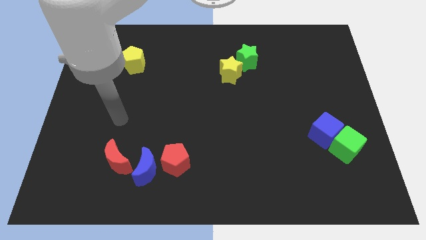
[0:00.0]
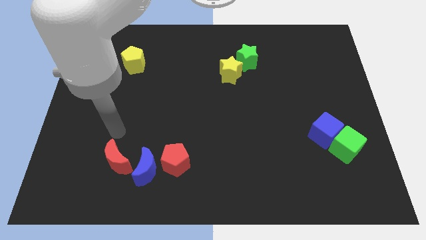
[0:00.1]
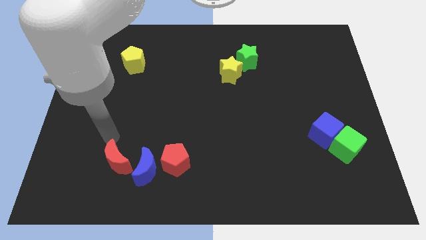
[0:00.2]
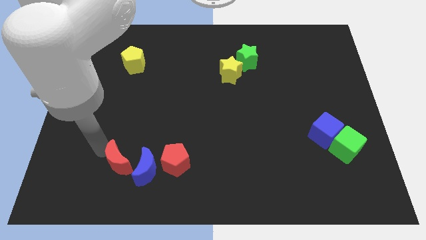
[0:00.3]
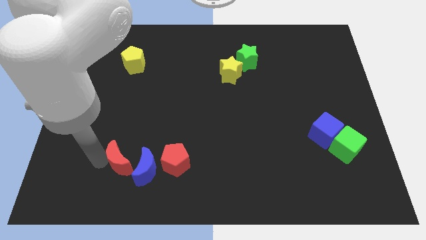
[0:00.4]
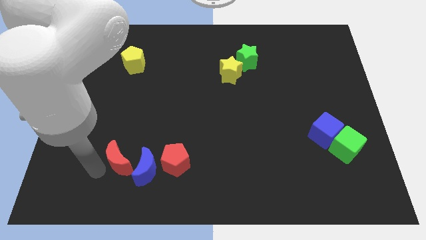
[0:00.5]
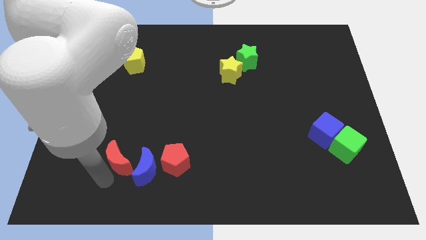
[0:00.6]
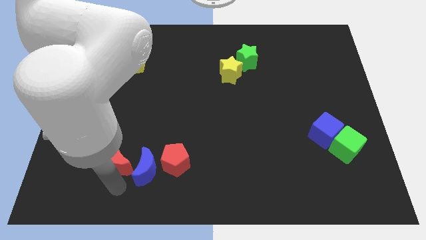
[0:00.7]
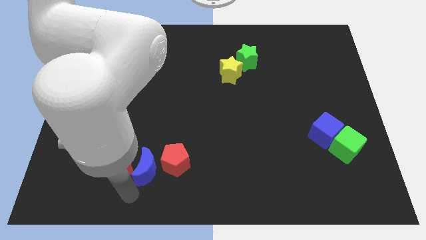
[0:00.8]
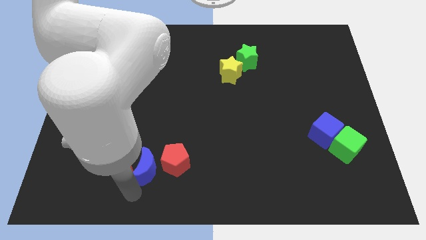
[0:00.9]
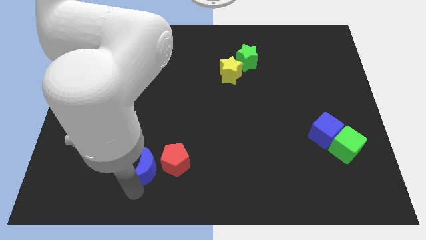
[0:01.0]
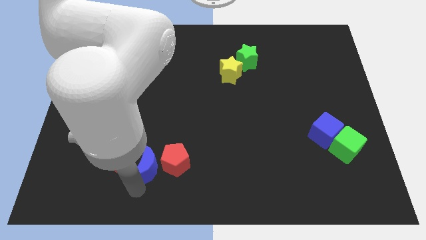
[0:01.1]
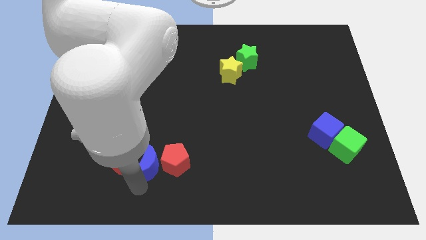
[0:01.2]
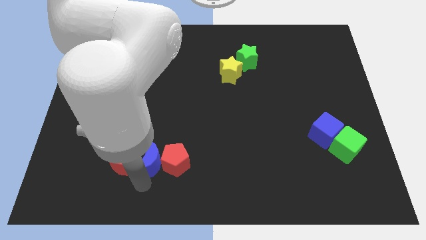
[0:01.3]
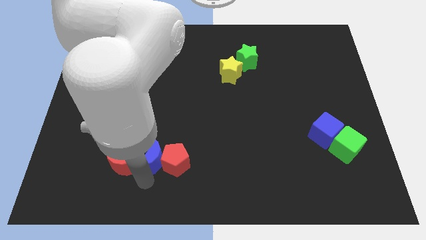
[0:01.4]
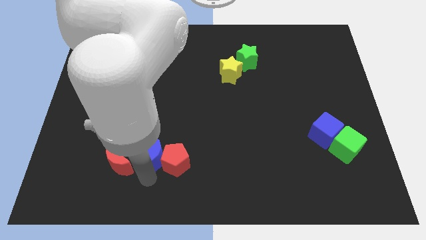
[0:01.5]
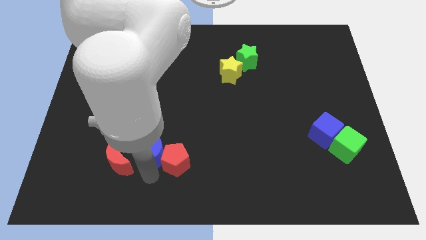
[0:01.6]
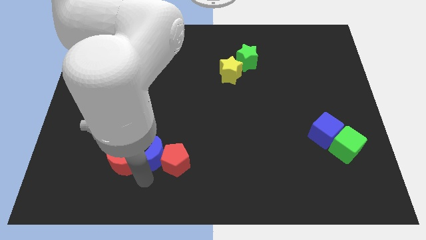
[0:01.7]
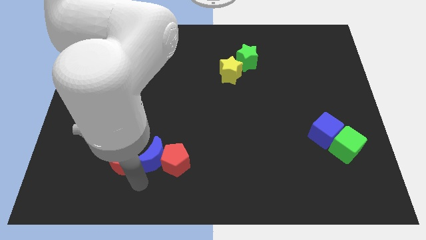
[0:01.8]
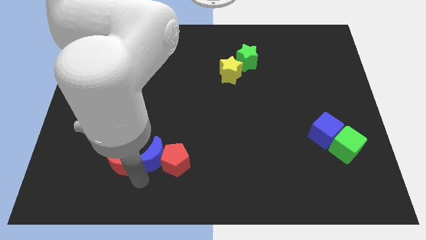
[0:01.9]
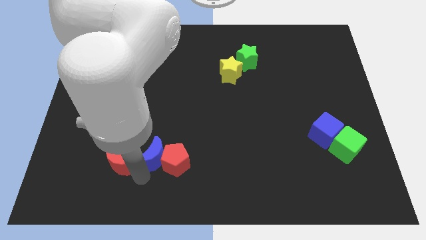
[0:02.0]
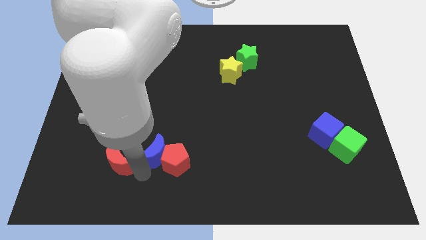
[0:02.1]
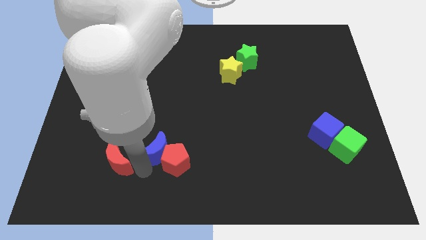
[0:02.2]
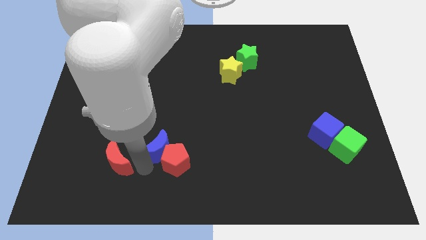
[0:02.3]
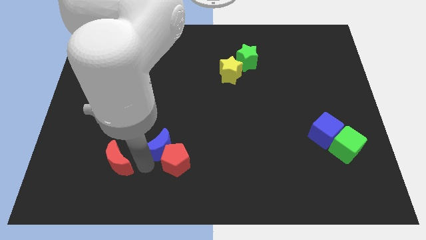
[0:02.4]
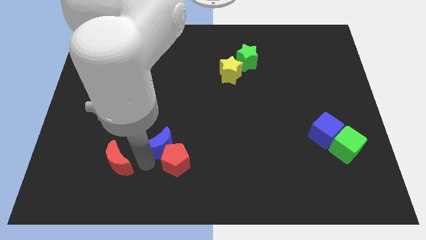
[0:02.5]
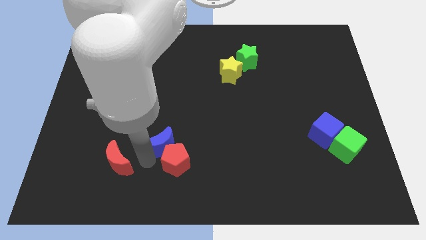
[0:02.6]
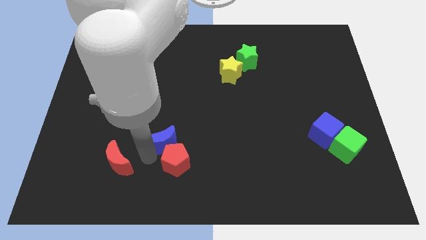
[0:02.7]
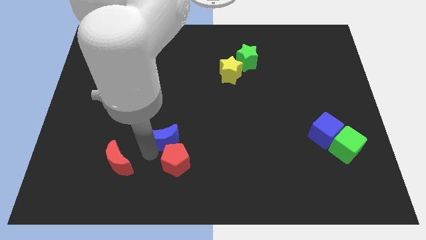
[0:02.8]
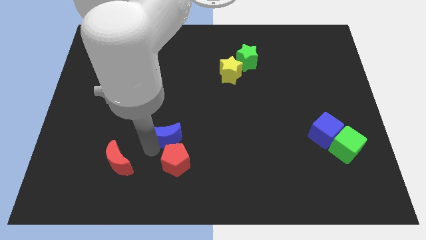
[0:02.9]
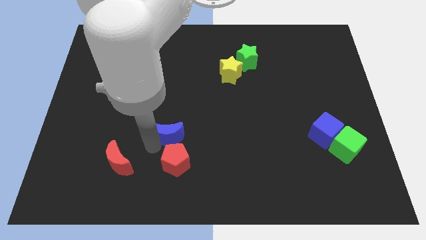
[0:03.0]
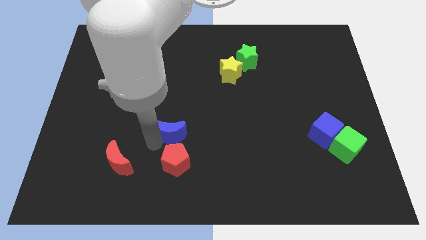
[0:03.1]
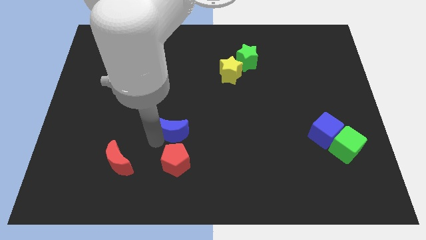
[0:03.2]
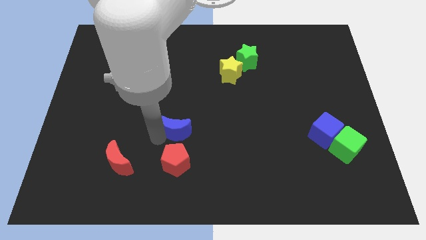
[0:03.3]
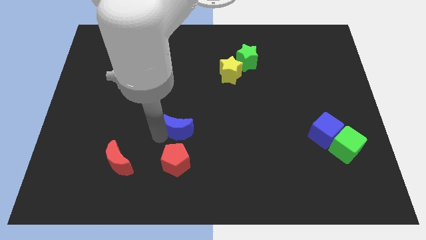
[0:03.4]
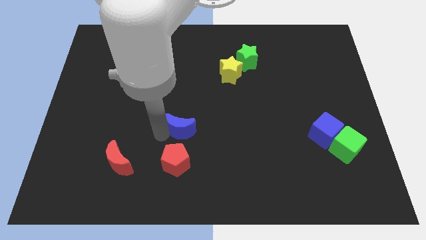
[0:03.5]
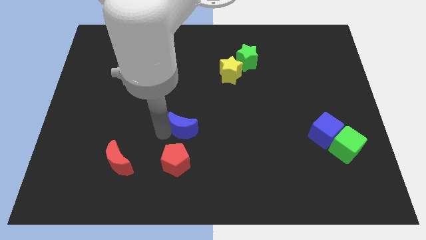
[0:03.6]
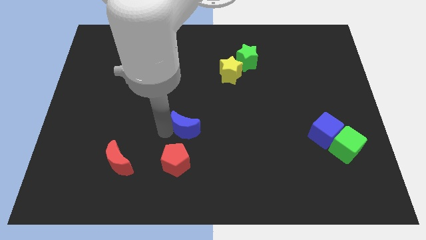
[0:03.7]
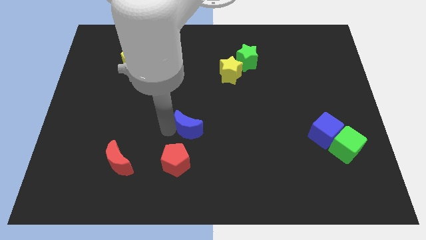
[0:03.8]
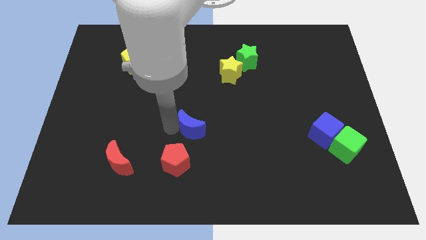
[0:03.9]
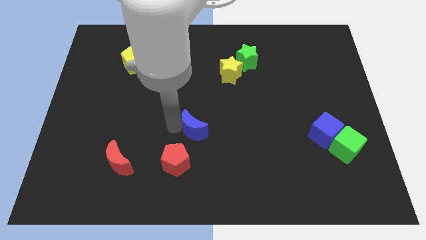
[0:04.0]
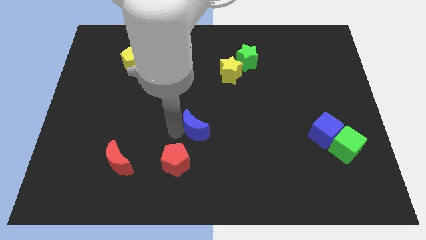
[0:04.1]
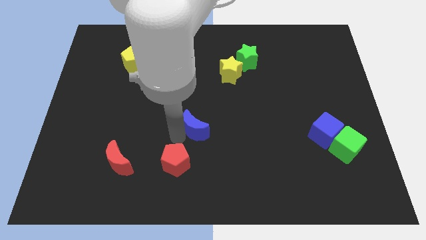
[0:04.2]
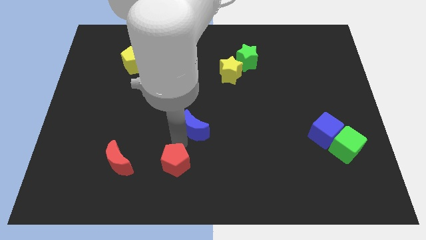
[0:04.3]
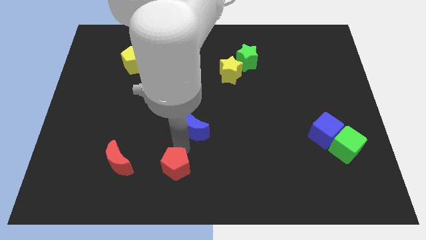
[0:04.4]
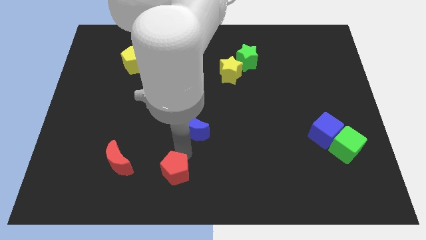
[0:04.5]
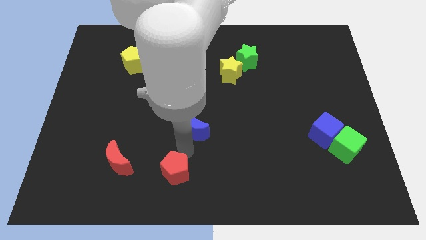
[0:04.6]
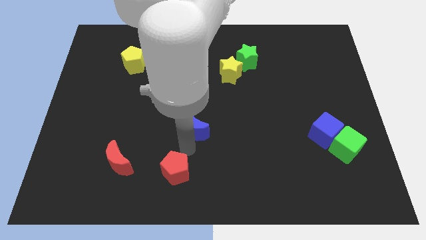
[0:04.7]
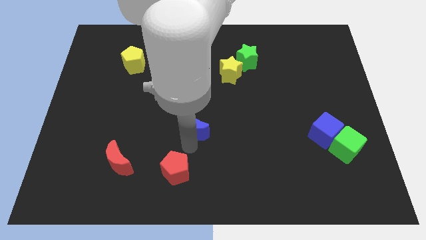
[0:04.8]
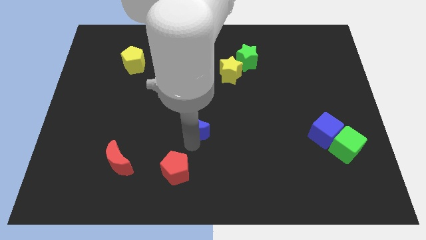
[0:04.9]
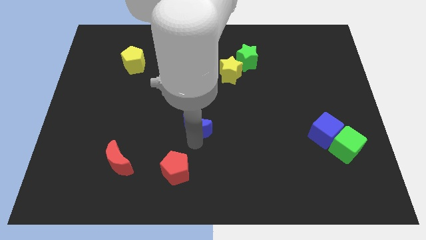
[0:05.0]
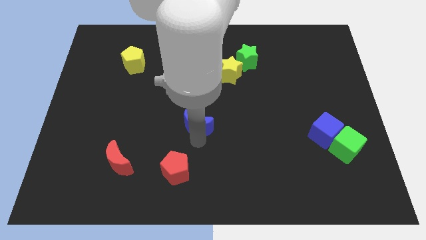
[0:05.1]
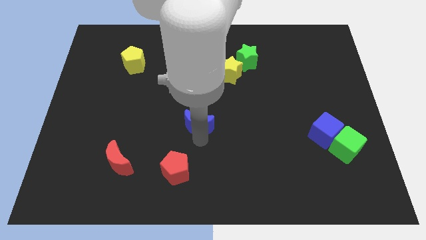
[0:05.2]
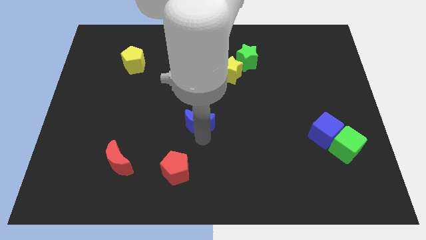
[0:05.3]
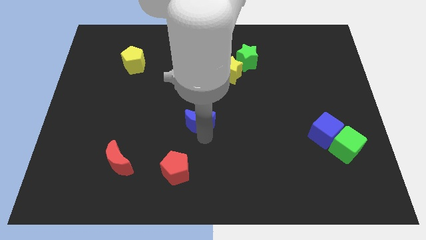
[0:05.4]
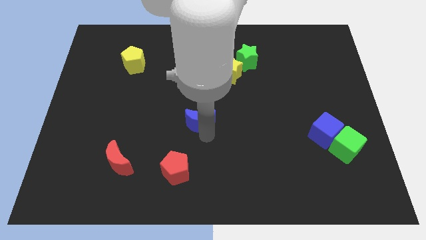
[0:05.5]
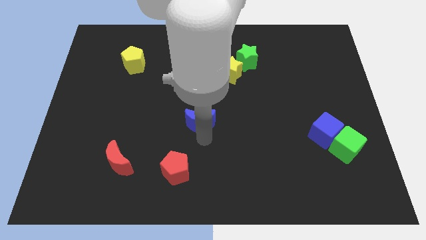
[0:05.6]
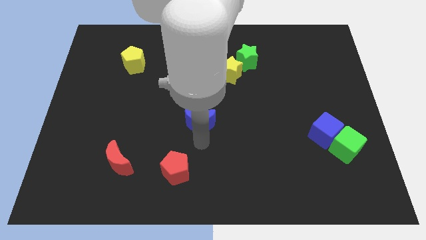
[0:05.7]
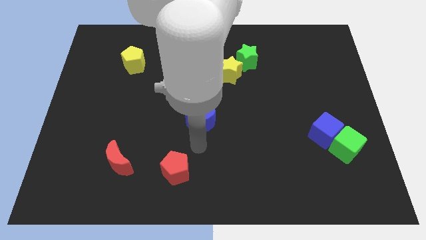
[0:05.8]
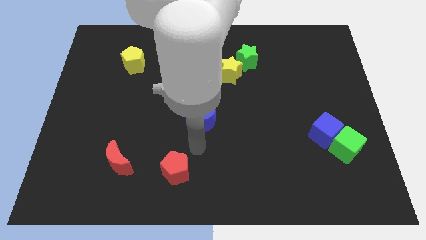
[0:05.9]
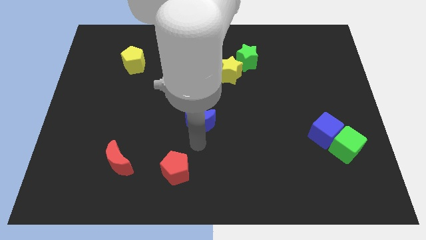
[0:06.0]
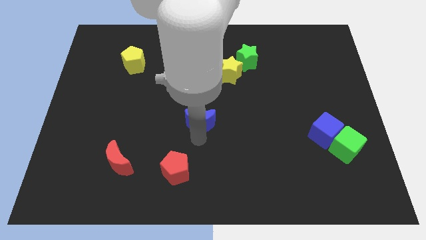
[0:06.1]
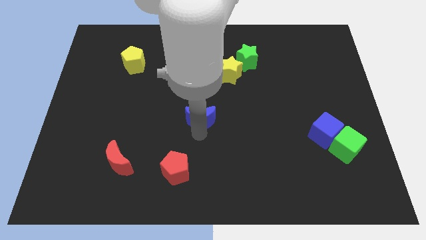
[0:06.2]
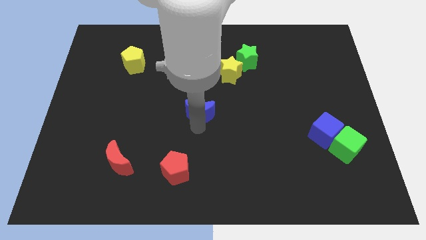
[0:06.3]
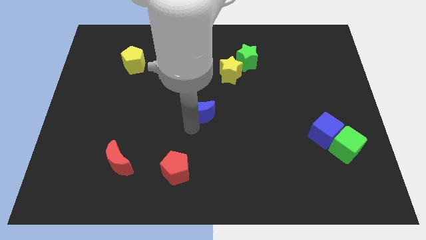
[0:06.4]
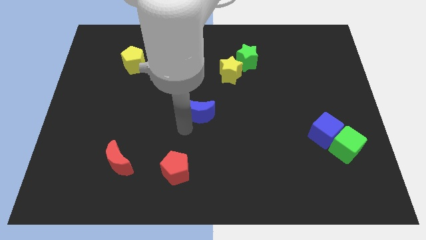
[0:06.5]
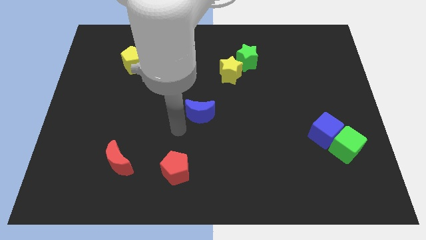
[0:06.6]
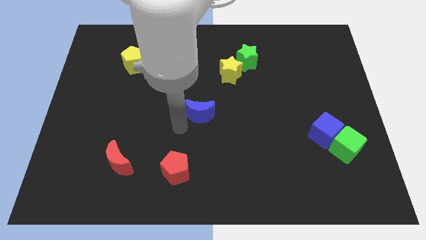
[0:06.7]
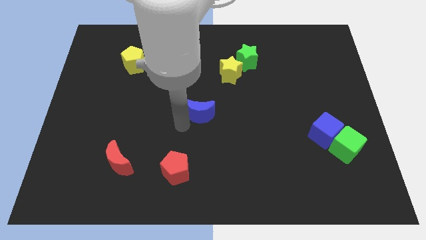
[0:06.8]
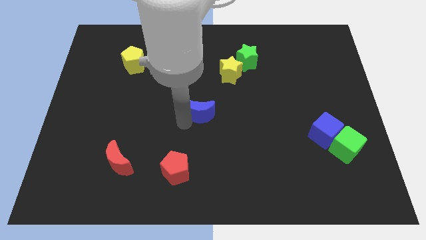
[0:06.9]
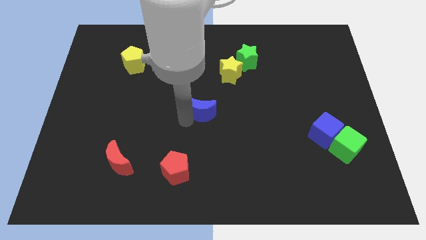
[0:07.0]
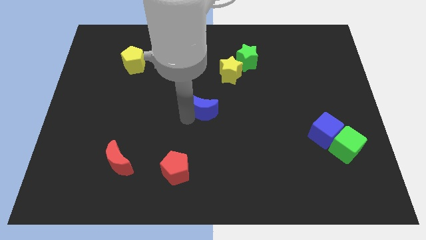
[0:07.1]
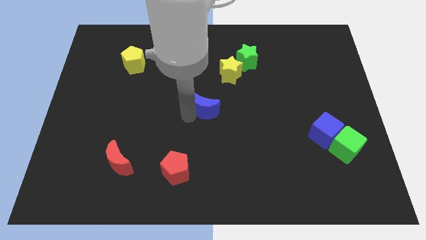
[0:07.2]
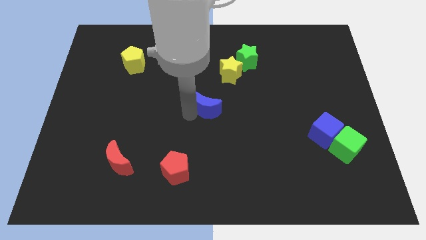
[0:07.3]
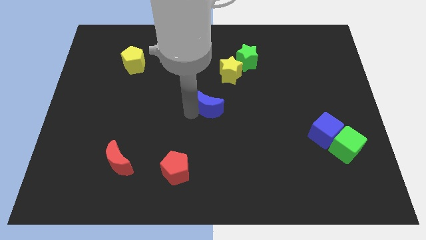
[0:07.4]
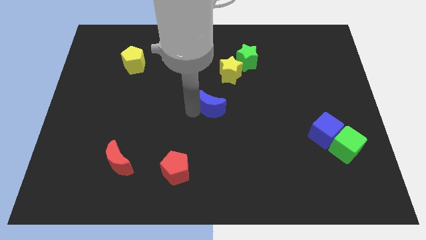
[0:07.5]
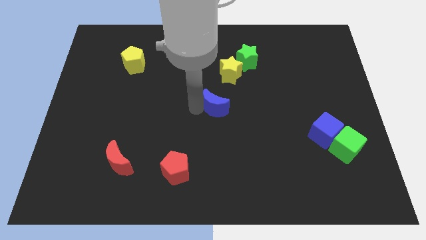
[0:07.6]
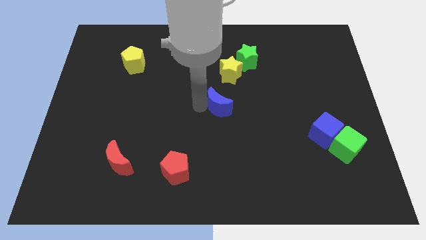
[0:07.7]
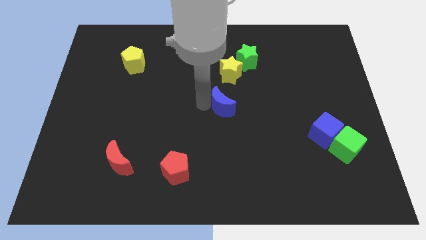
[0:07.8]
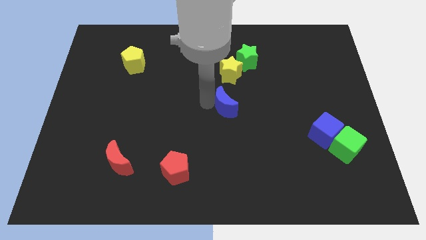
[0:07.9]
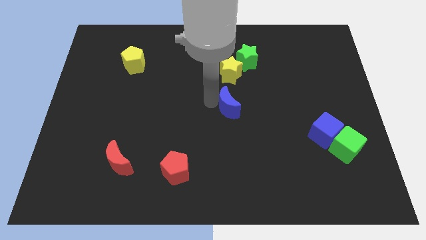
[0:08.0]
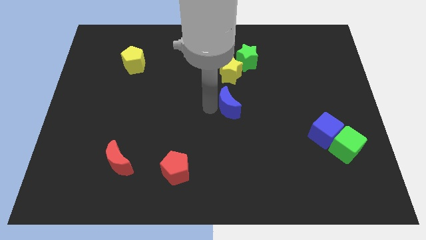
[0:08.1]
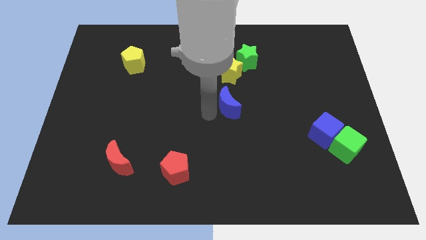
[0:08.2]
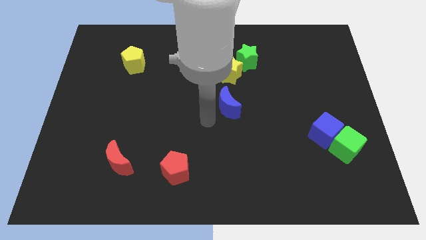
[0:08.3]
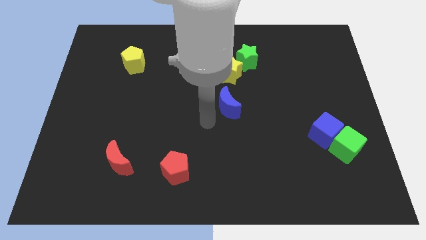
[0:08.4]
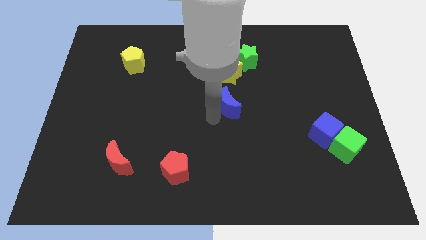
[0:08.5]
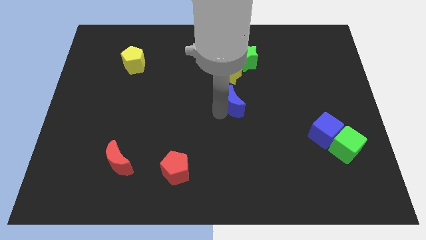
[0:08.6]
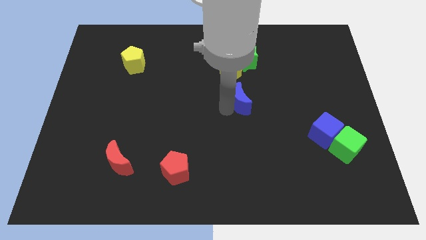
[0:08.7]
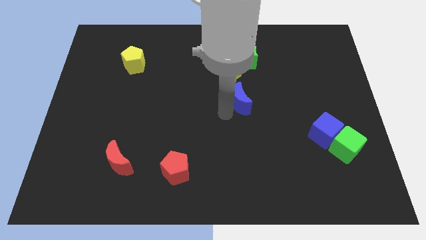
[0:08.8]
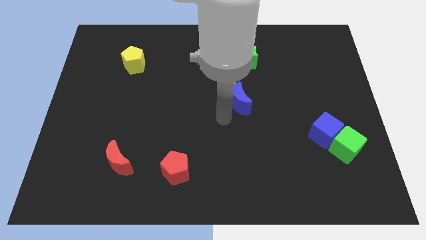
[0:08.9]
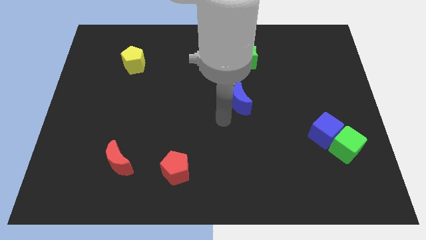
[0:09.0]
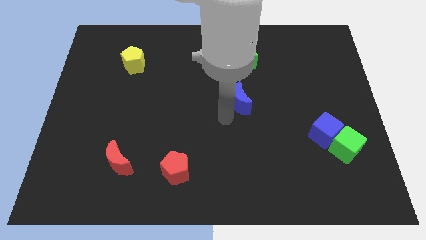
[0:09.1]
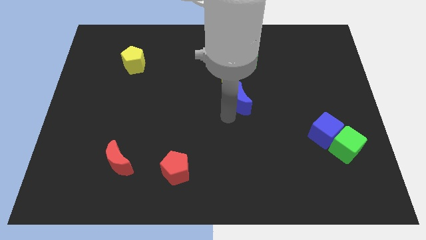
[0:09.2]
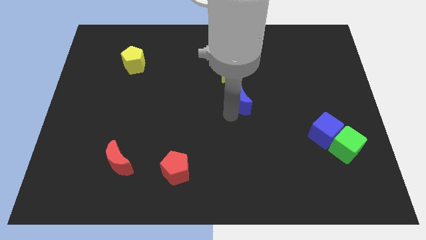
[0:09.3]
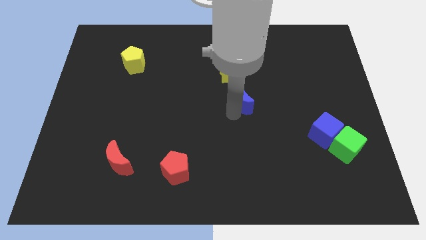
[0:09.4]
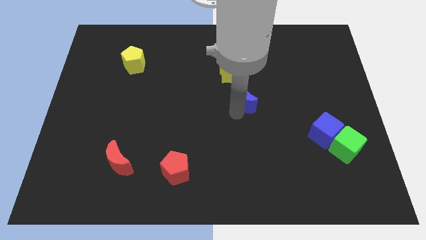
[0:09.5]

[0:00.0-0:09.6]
put the blue moon to the bottom right side of the yellow star
